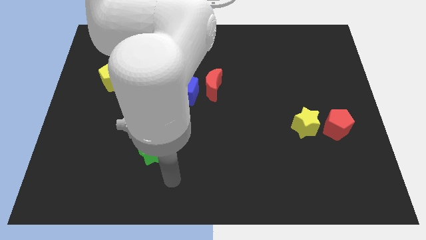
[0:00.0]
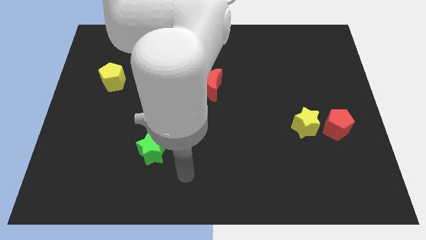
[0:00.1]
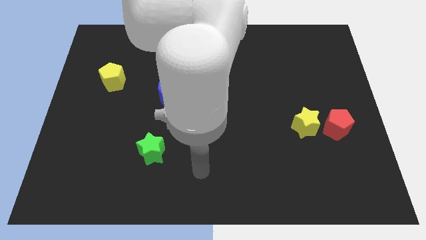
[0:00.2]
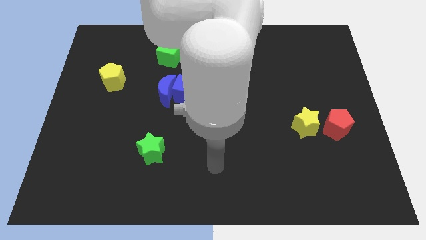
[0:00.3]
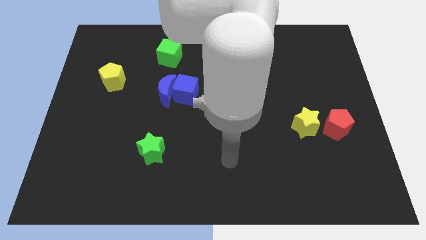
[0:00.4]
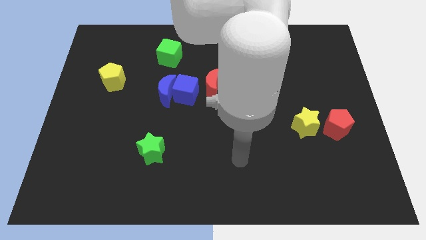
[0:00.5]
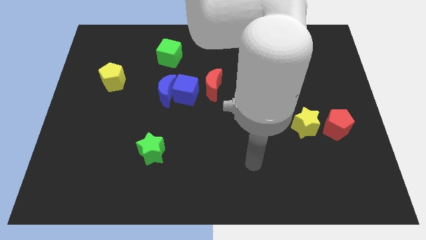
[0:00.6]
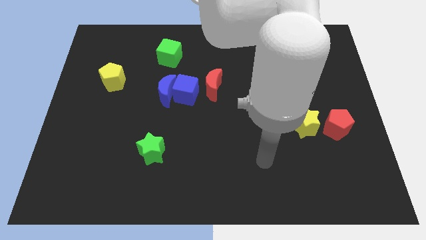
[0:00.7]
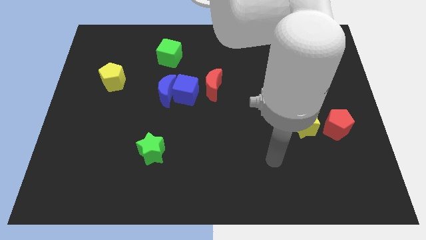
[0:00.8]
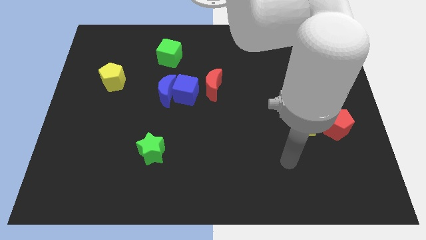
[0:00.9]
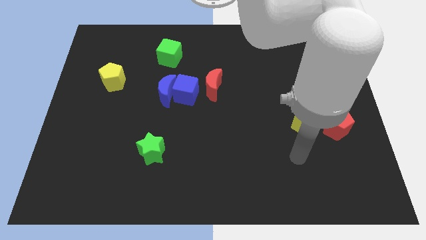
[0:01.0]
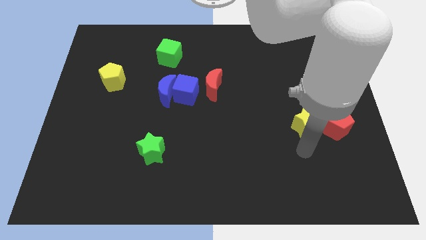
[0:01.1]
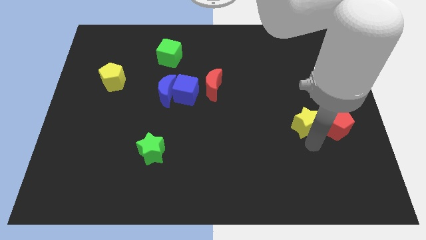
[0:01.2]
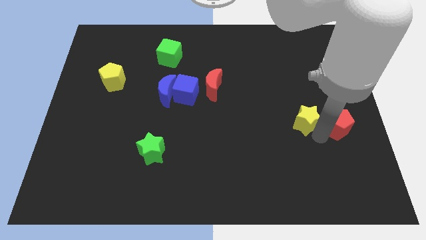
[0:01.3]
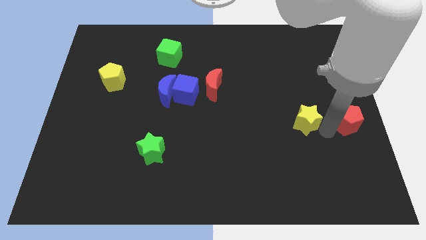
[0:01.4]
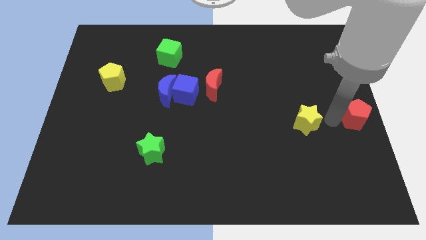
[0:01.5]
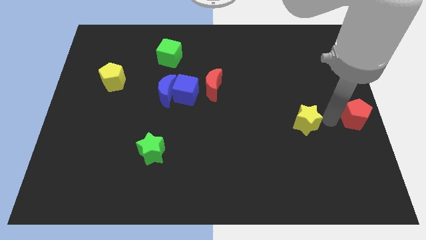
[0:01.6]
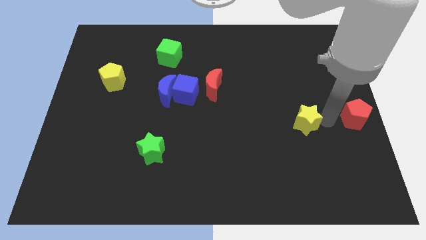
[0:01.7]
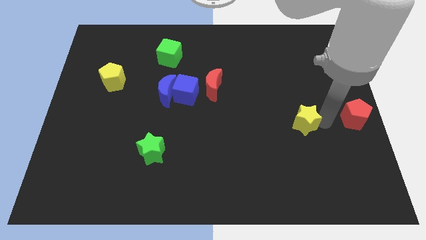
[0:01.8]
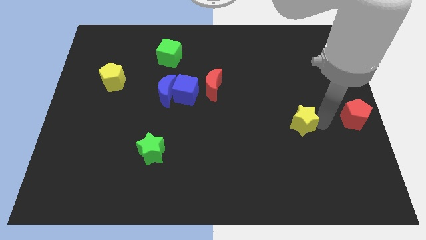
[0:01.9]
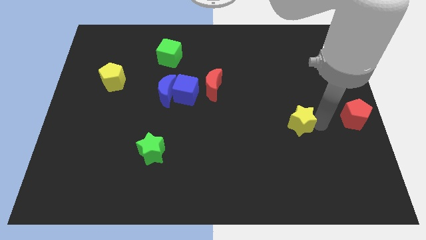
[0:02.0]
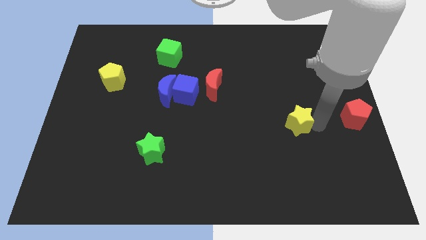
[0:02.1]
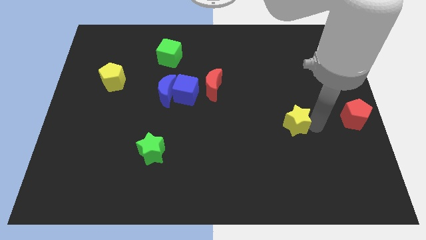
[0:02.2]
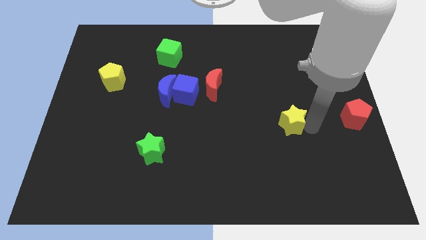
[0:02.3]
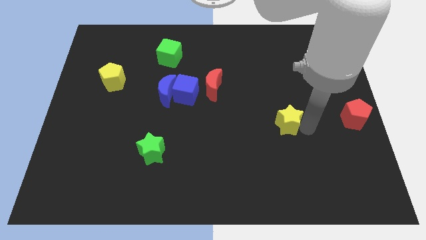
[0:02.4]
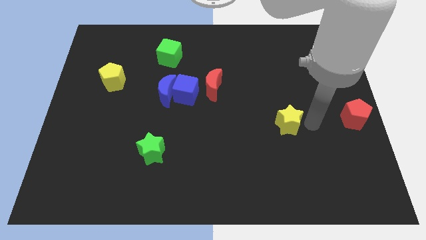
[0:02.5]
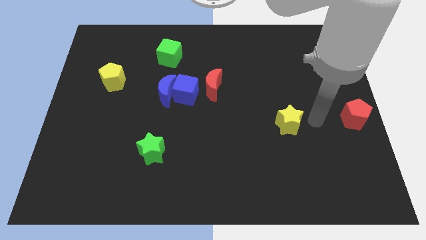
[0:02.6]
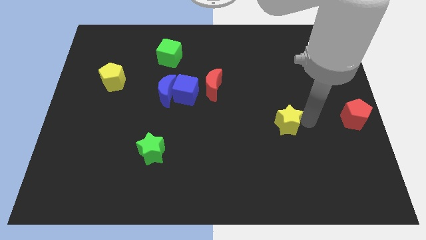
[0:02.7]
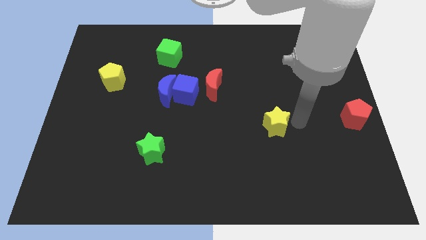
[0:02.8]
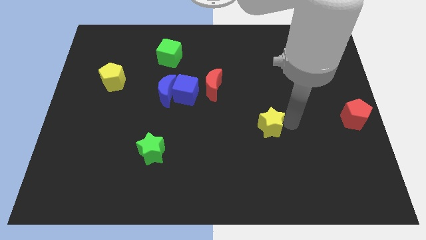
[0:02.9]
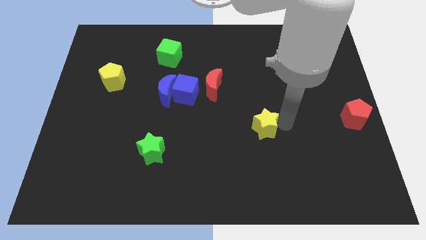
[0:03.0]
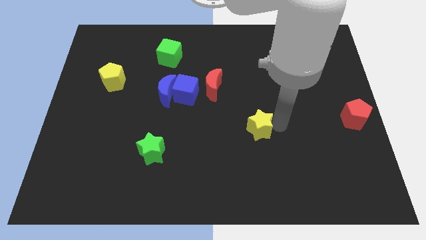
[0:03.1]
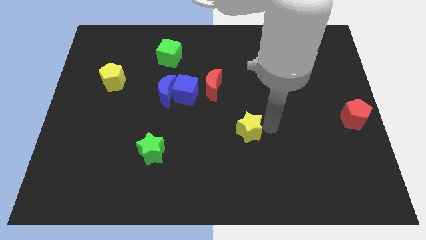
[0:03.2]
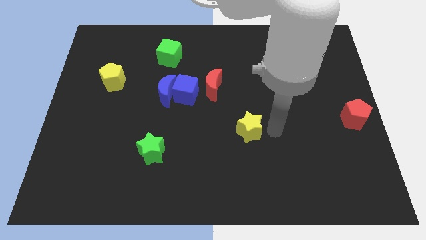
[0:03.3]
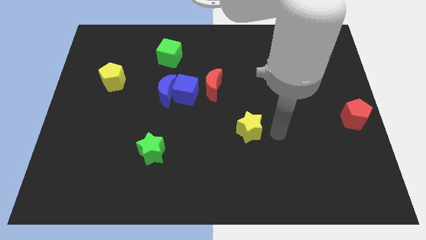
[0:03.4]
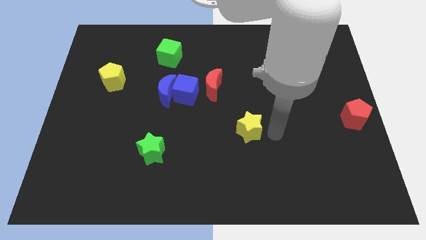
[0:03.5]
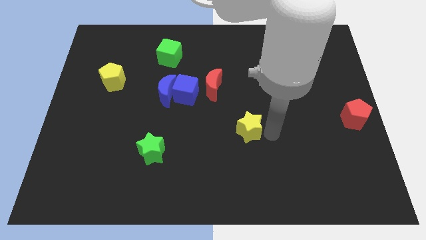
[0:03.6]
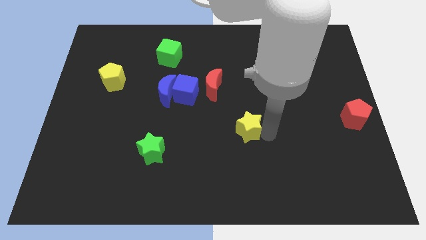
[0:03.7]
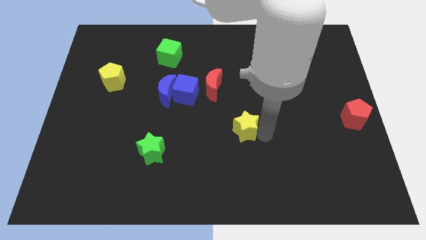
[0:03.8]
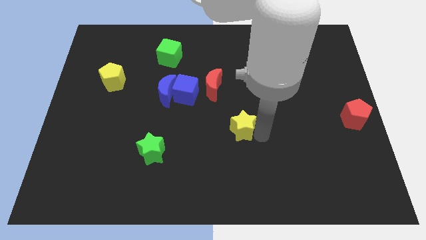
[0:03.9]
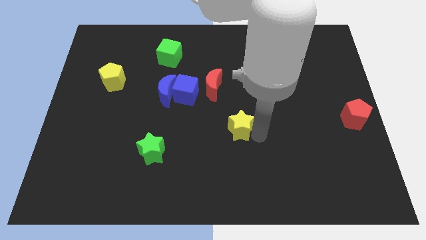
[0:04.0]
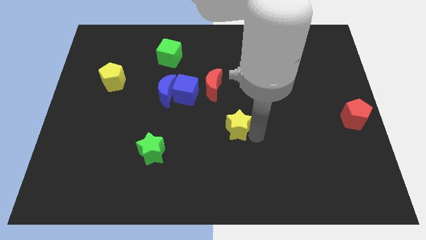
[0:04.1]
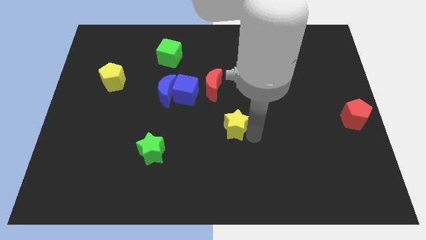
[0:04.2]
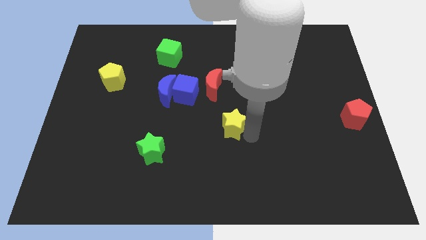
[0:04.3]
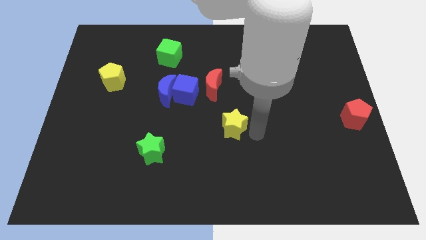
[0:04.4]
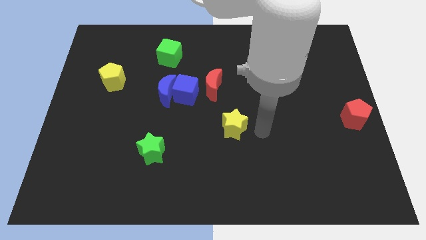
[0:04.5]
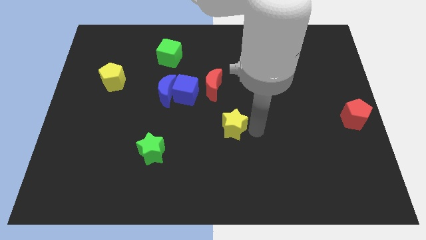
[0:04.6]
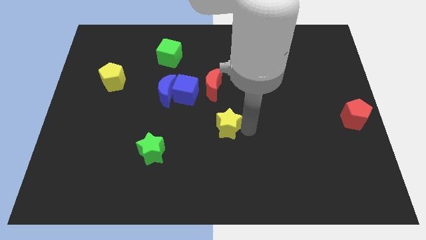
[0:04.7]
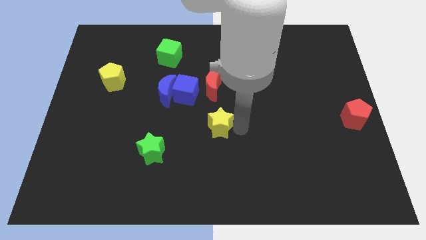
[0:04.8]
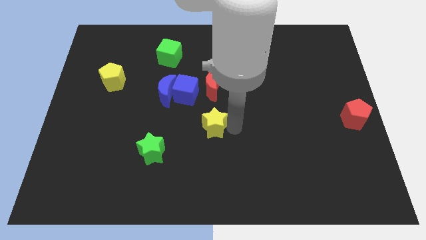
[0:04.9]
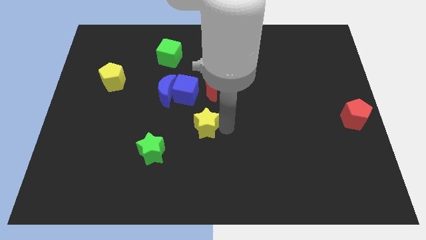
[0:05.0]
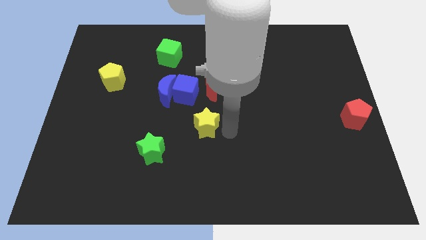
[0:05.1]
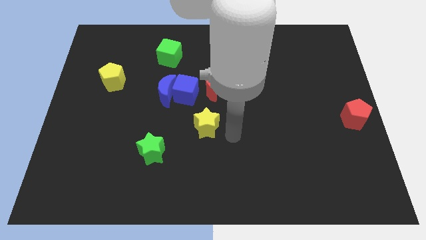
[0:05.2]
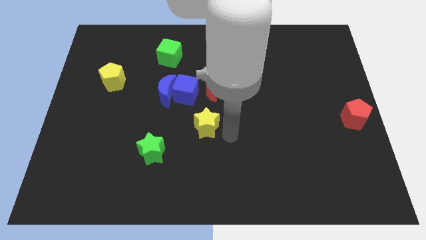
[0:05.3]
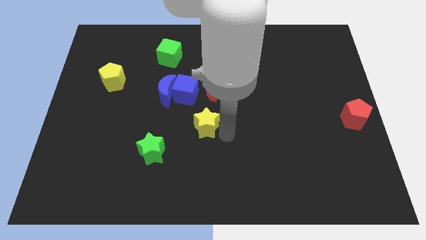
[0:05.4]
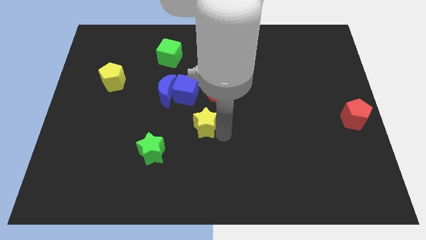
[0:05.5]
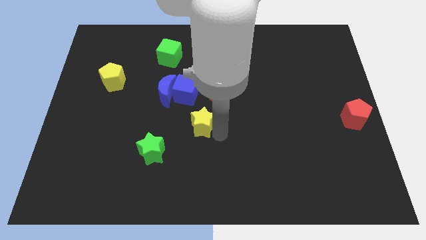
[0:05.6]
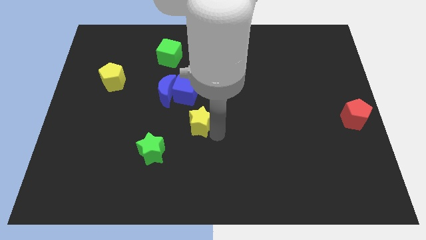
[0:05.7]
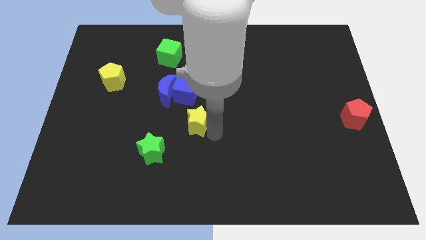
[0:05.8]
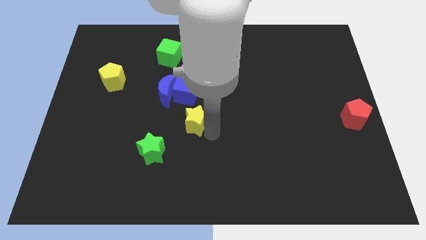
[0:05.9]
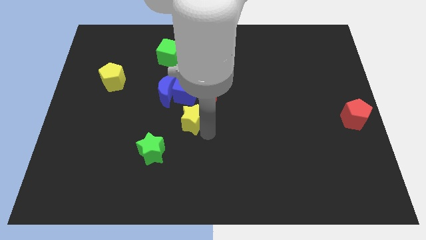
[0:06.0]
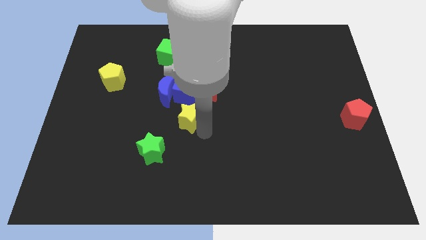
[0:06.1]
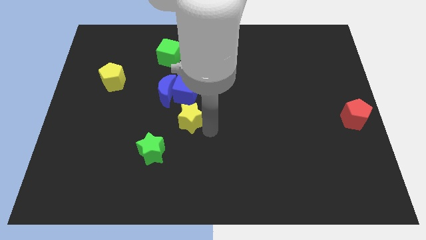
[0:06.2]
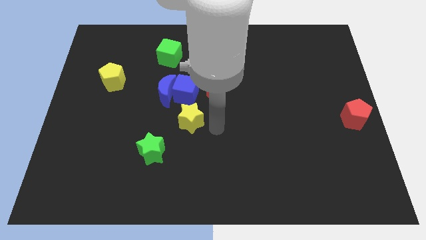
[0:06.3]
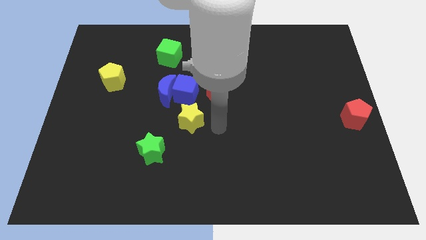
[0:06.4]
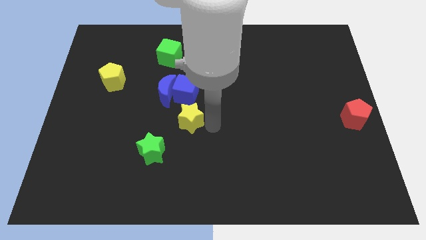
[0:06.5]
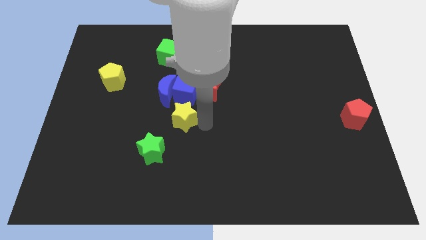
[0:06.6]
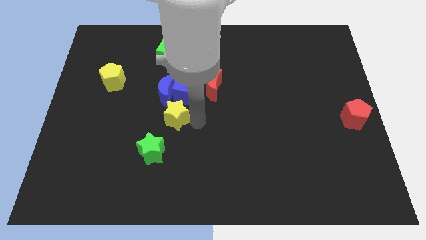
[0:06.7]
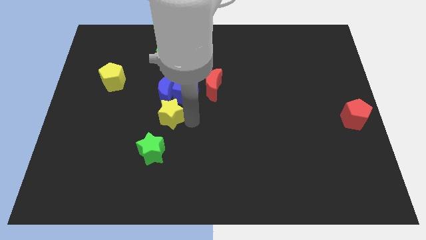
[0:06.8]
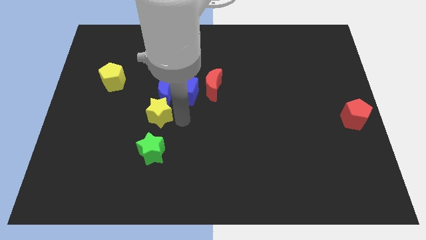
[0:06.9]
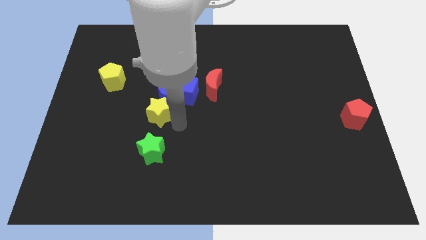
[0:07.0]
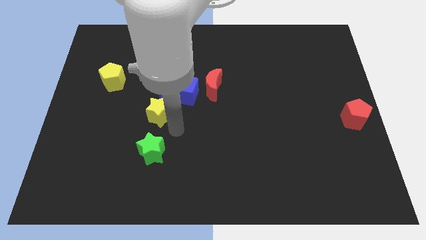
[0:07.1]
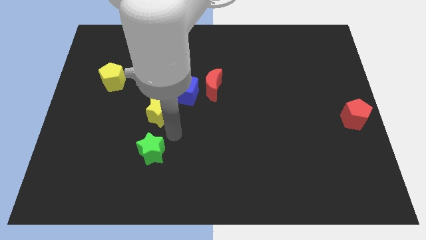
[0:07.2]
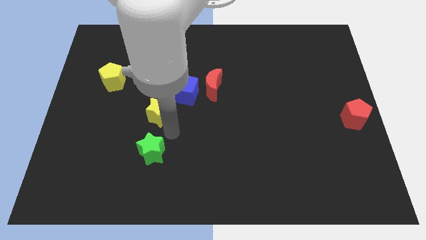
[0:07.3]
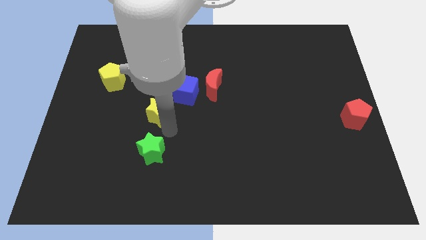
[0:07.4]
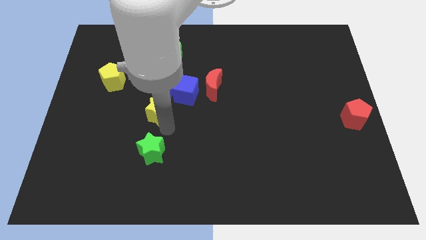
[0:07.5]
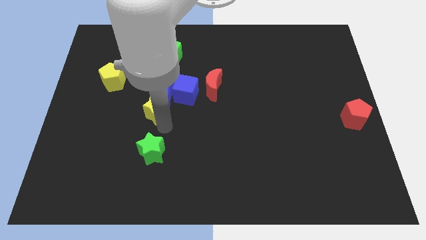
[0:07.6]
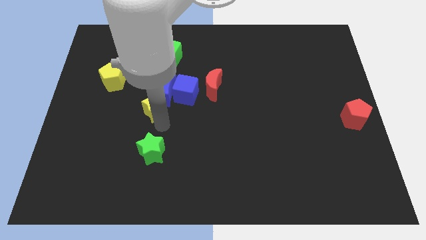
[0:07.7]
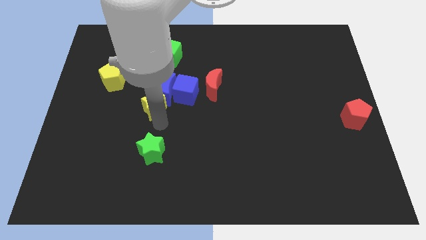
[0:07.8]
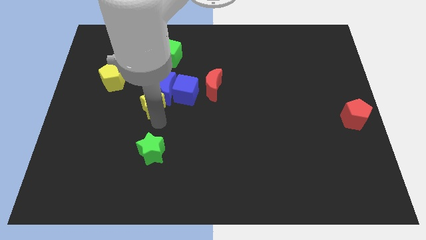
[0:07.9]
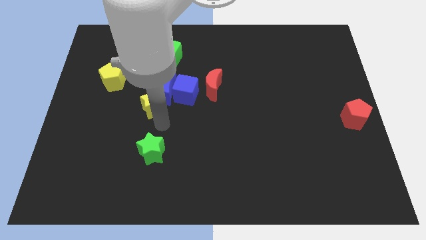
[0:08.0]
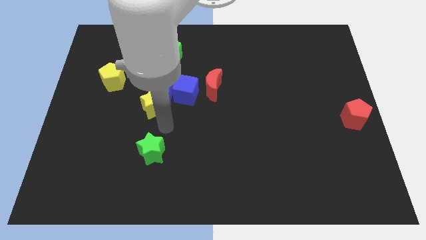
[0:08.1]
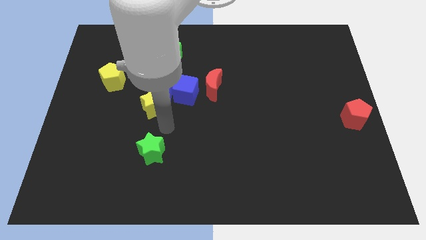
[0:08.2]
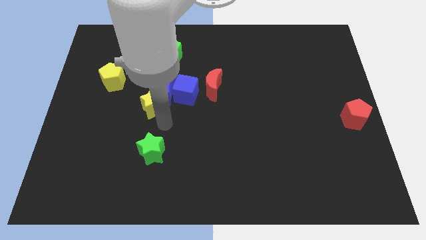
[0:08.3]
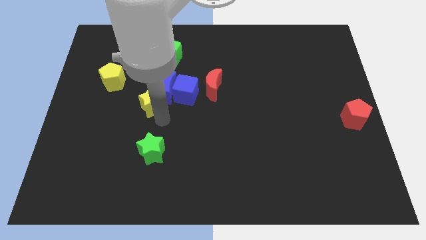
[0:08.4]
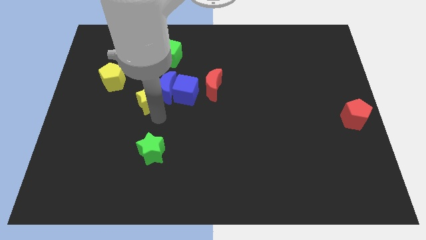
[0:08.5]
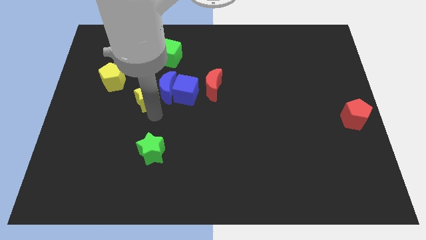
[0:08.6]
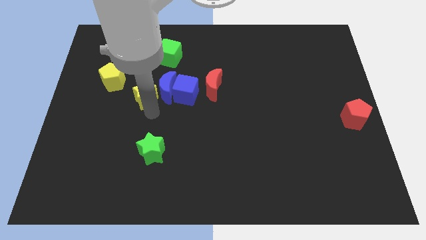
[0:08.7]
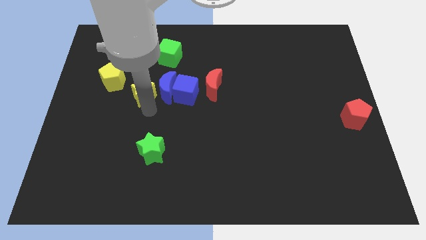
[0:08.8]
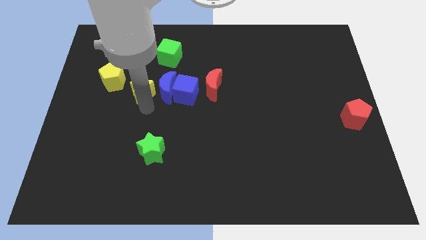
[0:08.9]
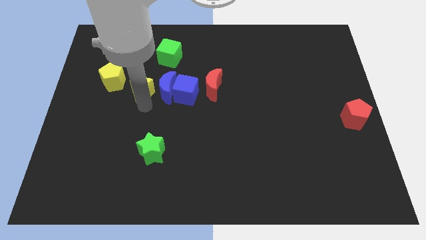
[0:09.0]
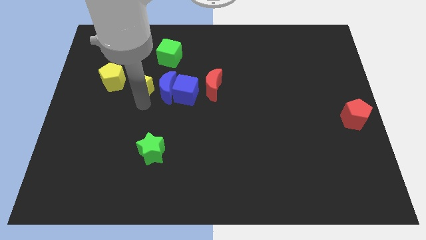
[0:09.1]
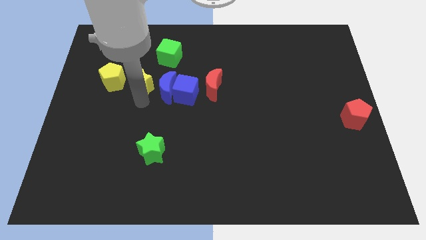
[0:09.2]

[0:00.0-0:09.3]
move the yellow star to the bottom left side of the green cube
